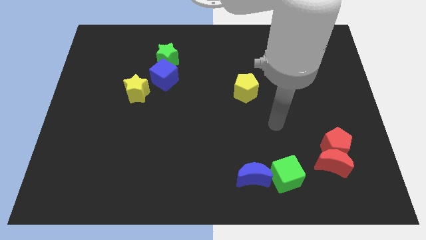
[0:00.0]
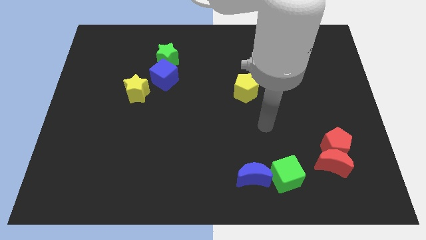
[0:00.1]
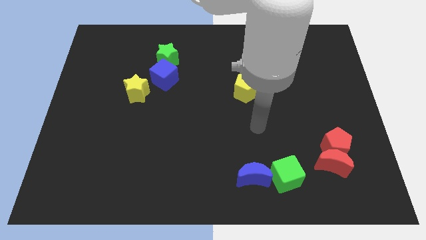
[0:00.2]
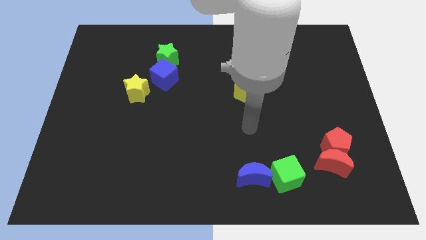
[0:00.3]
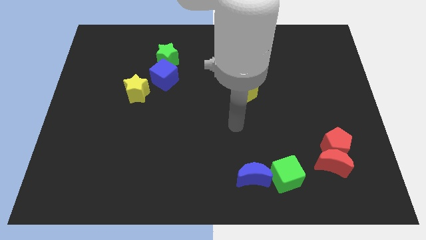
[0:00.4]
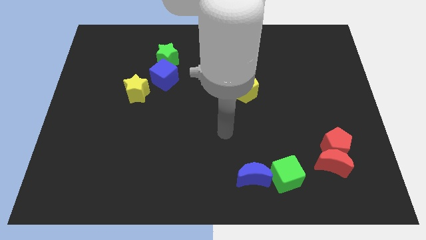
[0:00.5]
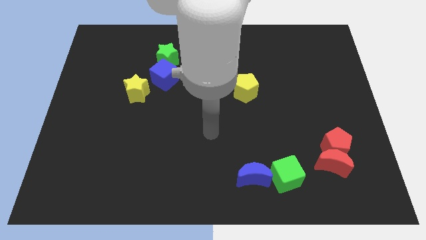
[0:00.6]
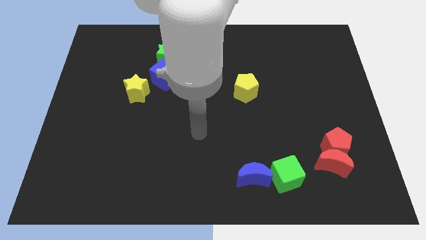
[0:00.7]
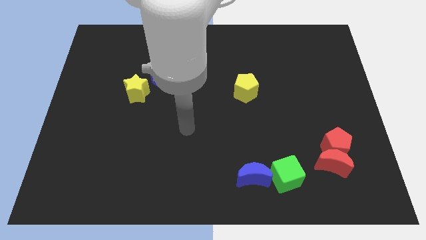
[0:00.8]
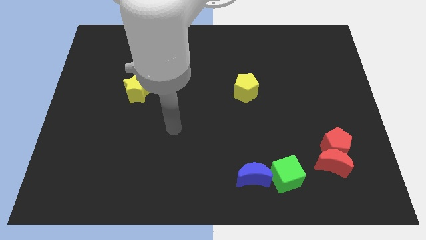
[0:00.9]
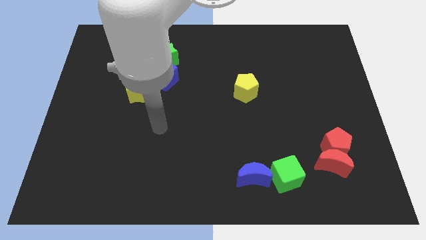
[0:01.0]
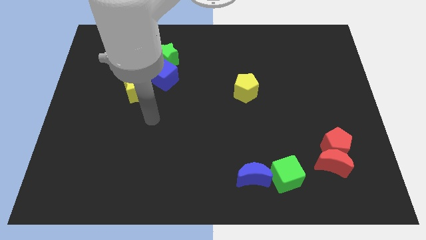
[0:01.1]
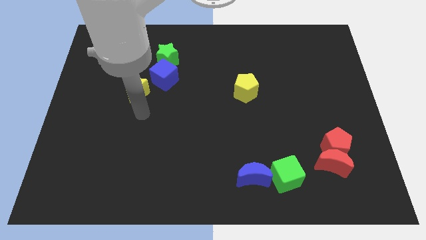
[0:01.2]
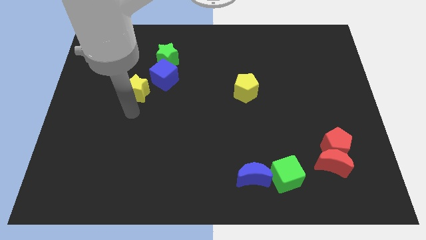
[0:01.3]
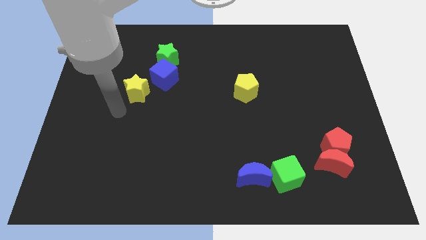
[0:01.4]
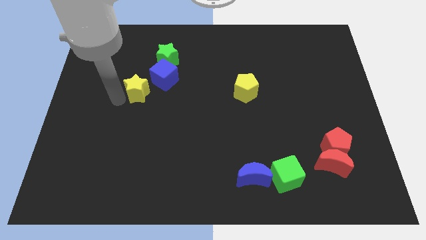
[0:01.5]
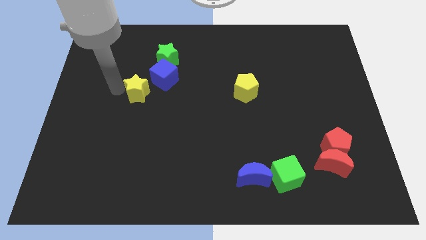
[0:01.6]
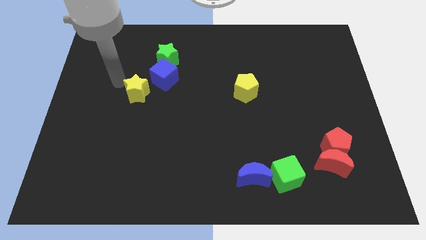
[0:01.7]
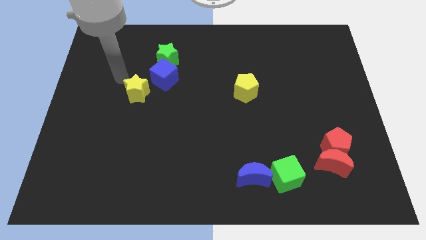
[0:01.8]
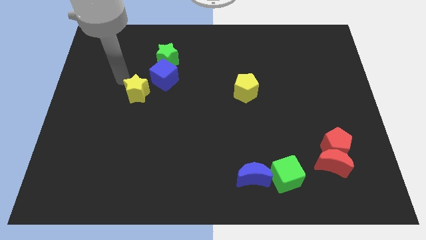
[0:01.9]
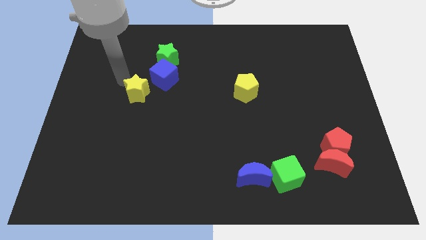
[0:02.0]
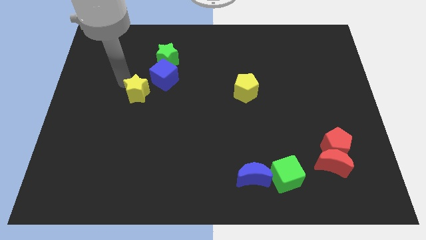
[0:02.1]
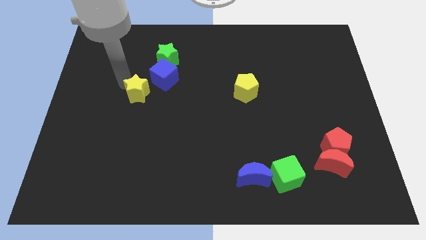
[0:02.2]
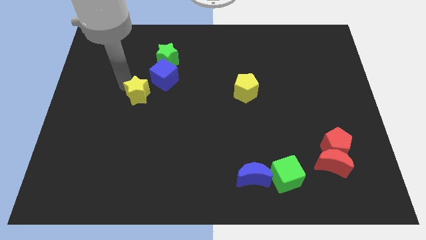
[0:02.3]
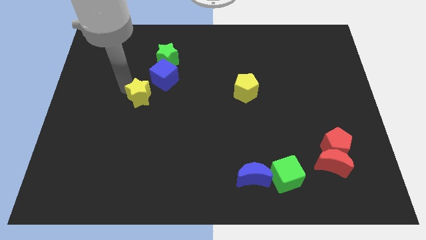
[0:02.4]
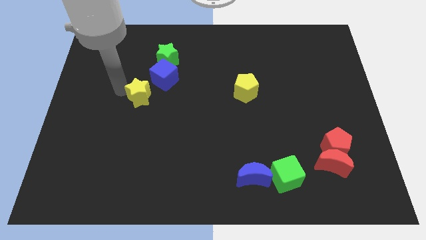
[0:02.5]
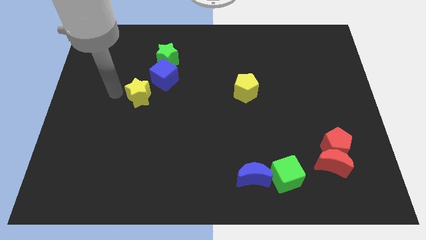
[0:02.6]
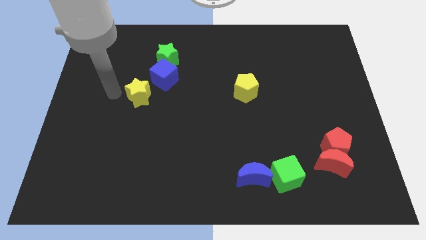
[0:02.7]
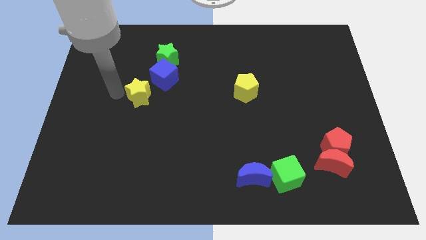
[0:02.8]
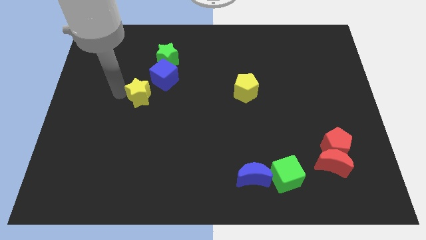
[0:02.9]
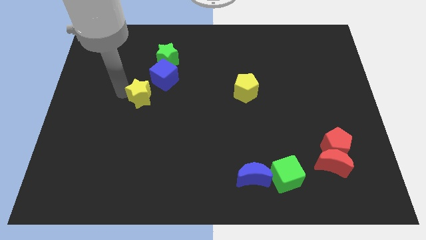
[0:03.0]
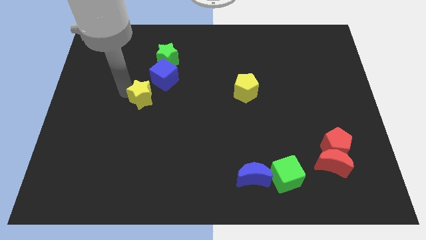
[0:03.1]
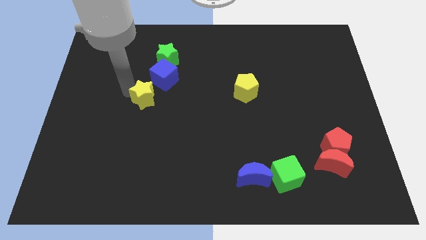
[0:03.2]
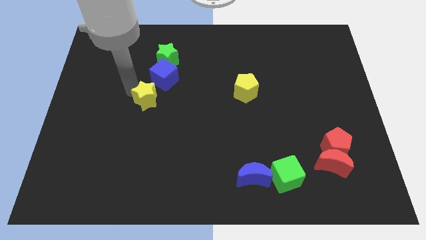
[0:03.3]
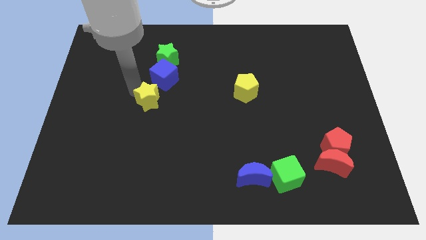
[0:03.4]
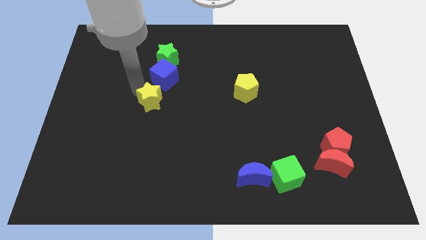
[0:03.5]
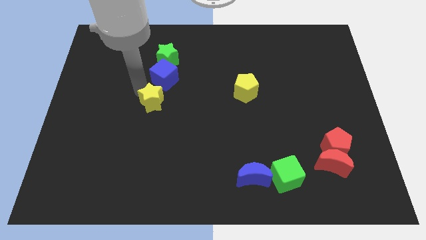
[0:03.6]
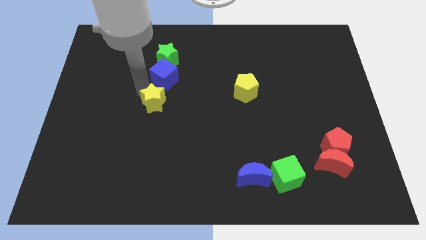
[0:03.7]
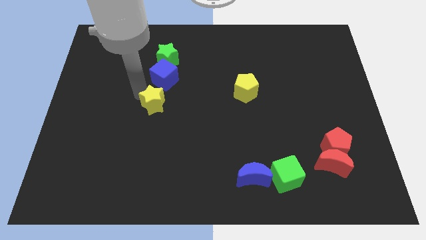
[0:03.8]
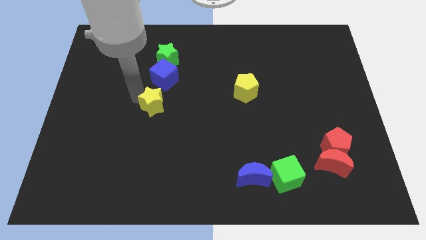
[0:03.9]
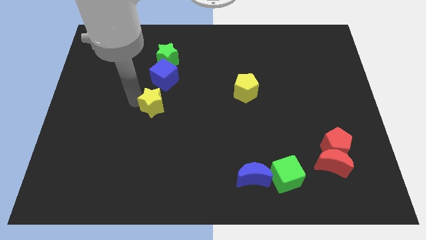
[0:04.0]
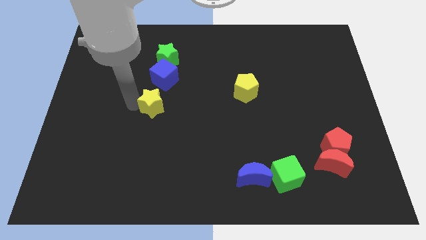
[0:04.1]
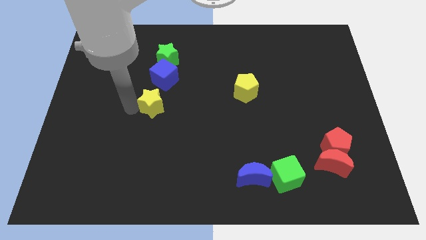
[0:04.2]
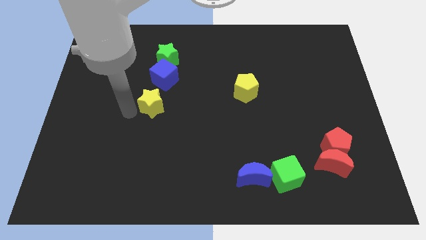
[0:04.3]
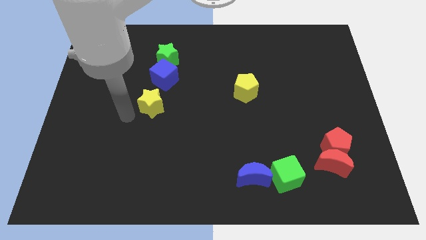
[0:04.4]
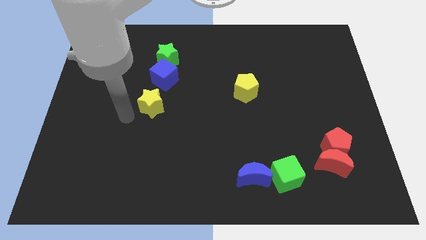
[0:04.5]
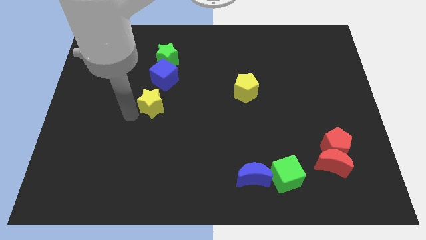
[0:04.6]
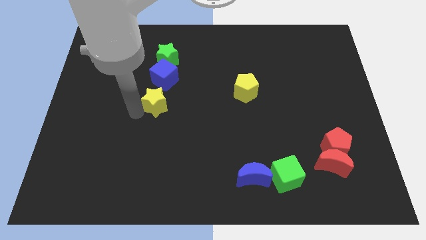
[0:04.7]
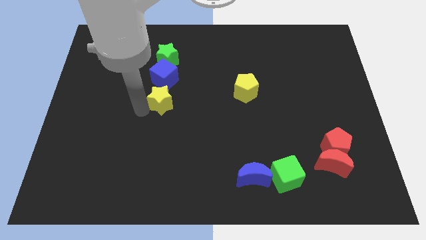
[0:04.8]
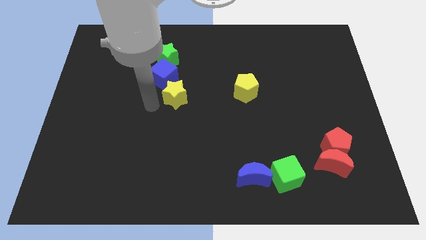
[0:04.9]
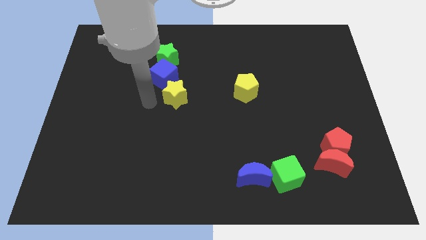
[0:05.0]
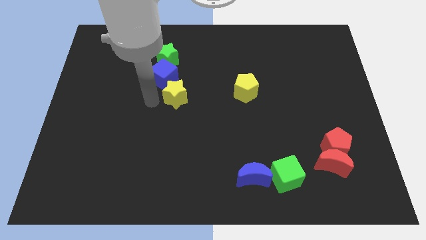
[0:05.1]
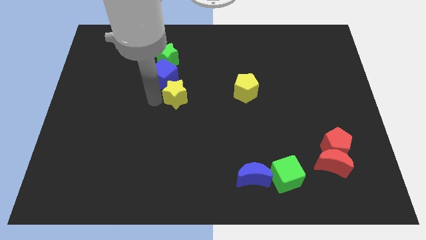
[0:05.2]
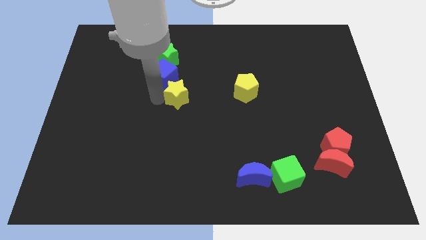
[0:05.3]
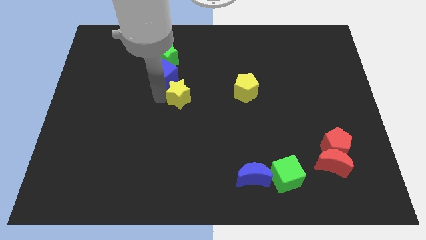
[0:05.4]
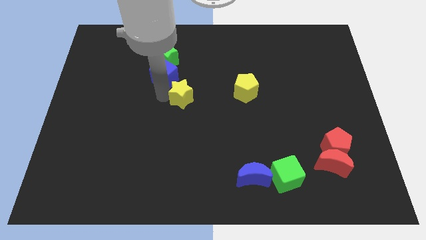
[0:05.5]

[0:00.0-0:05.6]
put the yellow star to the left side of the yellow pentagon

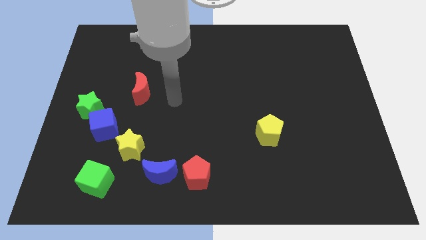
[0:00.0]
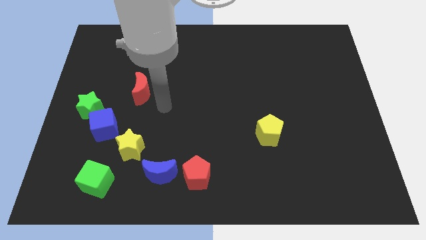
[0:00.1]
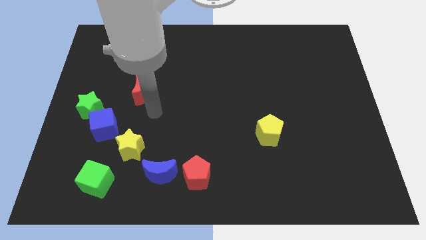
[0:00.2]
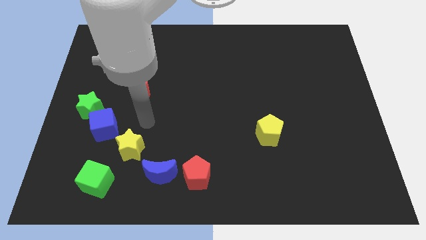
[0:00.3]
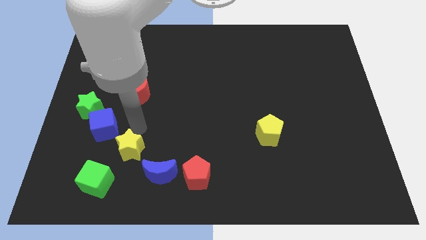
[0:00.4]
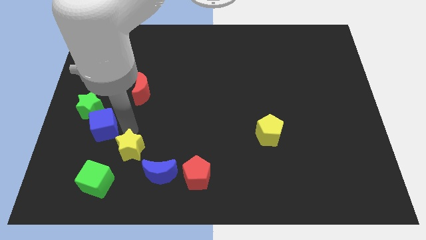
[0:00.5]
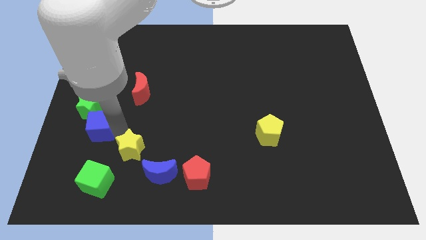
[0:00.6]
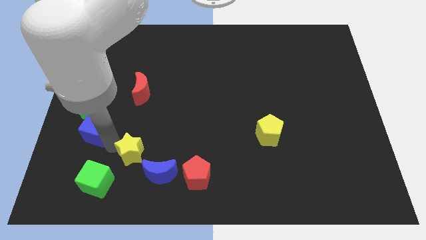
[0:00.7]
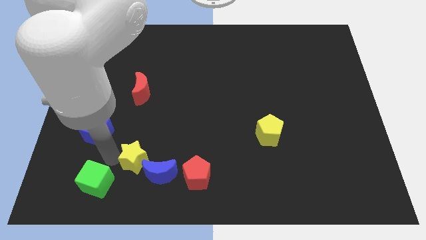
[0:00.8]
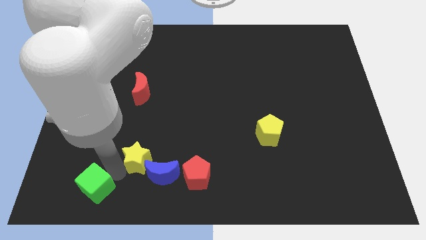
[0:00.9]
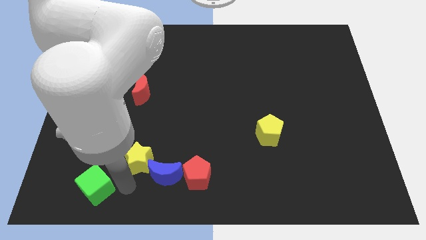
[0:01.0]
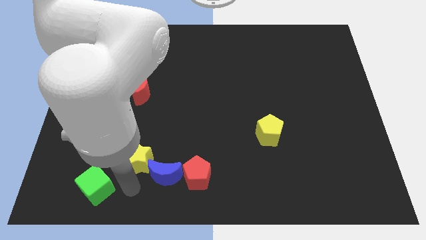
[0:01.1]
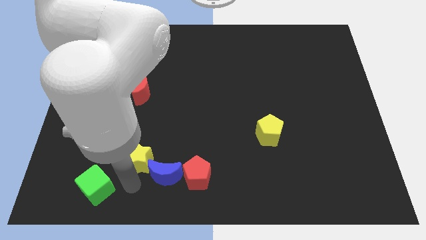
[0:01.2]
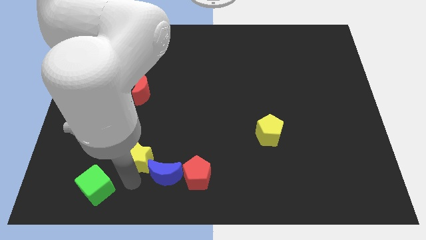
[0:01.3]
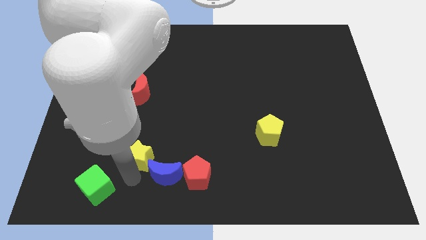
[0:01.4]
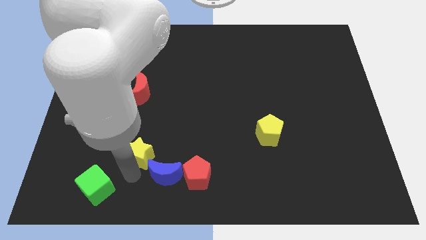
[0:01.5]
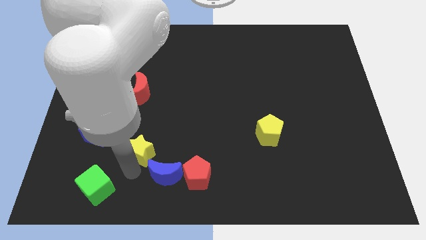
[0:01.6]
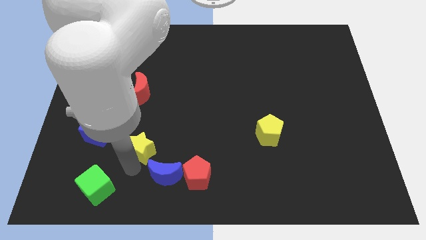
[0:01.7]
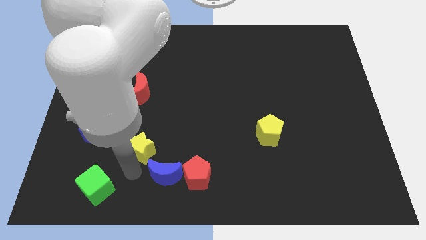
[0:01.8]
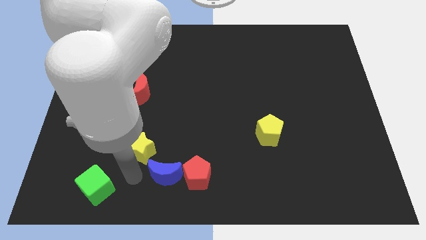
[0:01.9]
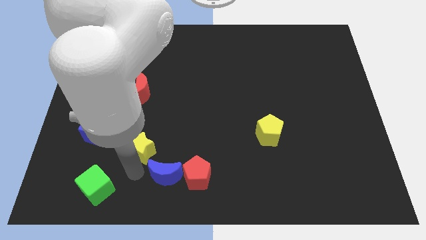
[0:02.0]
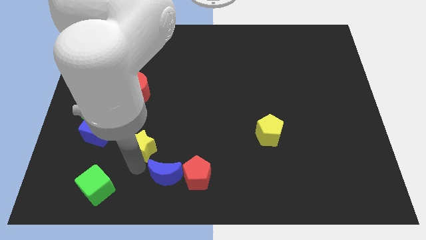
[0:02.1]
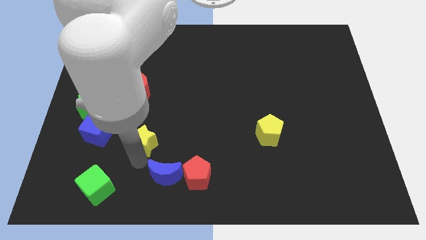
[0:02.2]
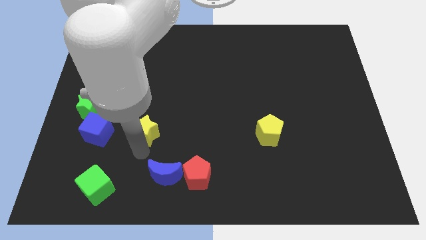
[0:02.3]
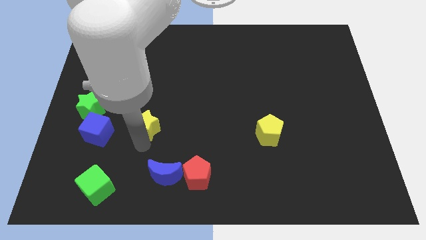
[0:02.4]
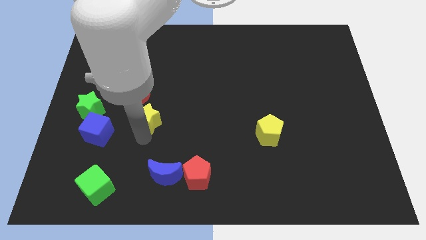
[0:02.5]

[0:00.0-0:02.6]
put the yellow star to the bottom right of the red moon
